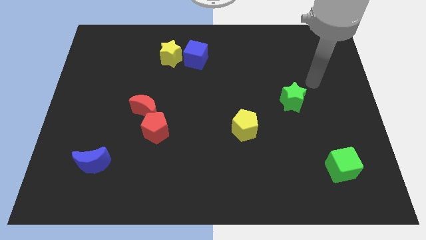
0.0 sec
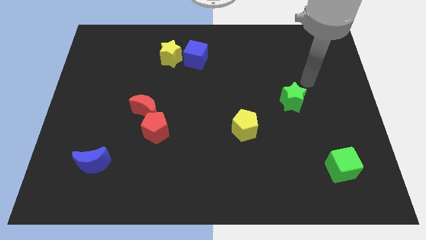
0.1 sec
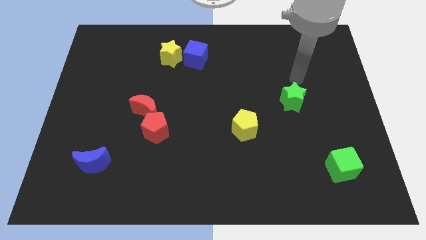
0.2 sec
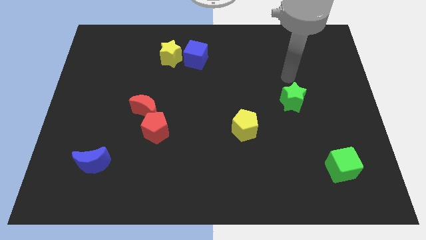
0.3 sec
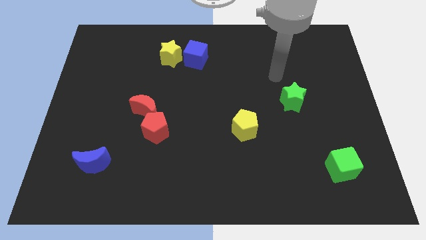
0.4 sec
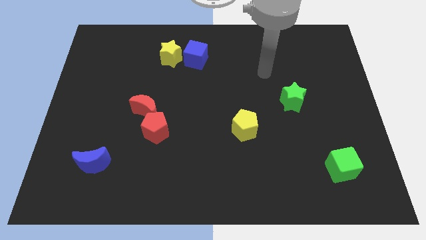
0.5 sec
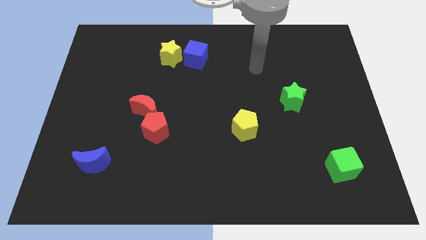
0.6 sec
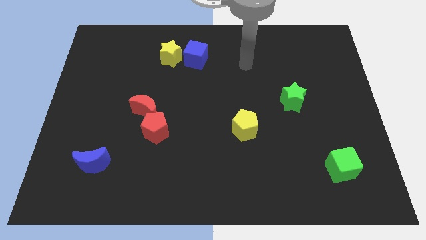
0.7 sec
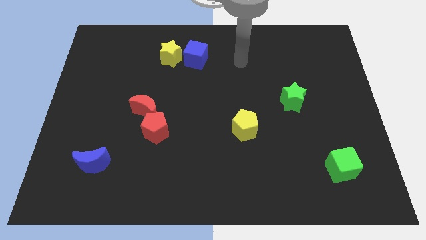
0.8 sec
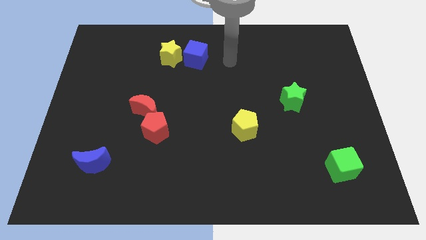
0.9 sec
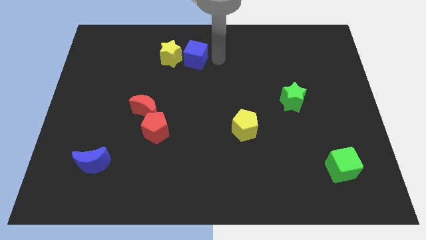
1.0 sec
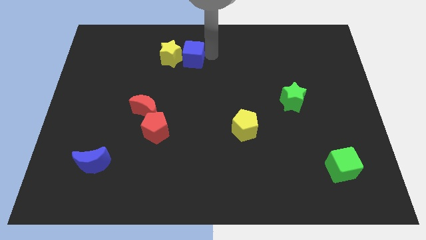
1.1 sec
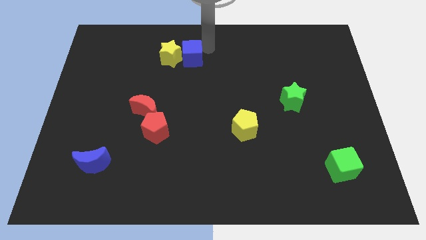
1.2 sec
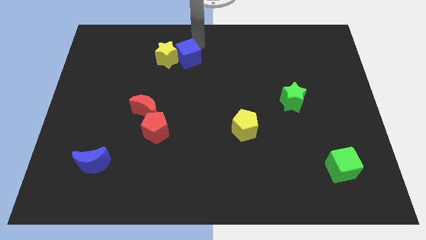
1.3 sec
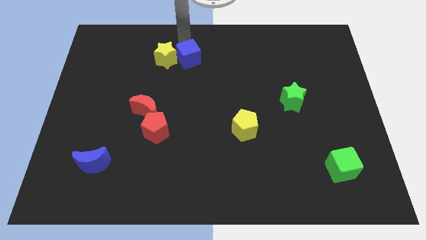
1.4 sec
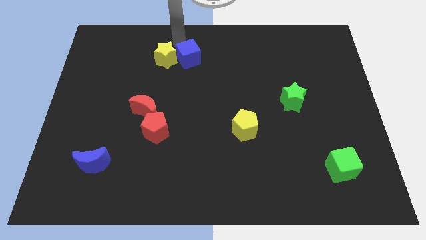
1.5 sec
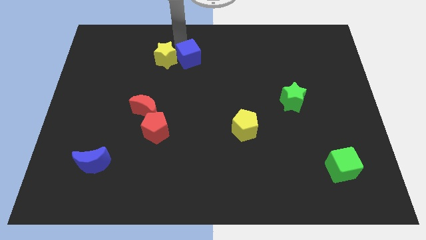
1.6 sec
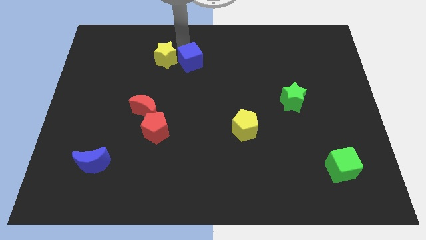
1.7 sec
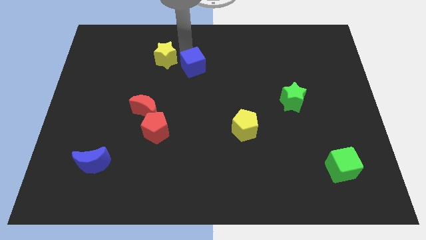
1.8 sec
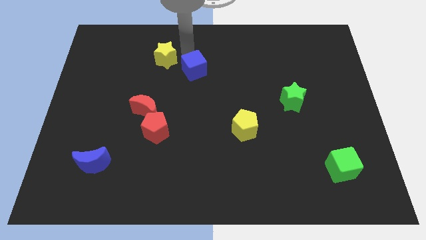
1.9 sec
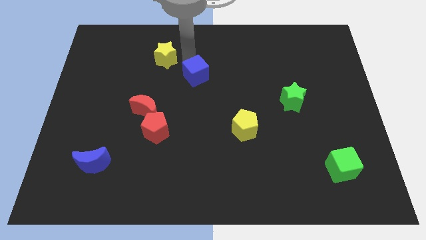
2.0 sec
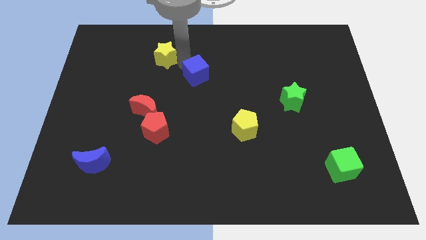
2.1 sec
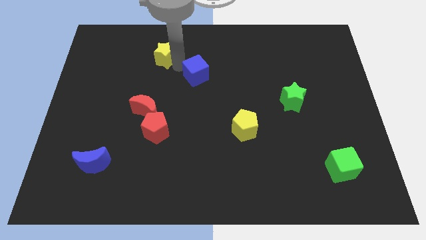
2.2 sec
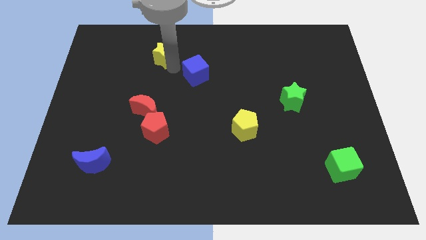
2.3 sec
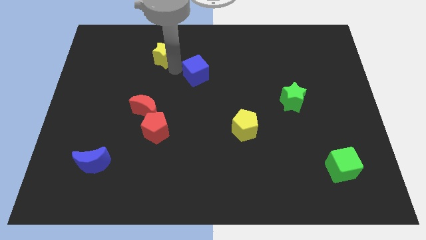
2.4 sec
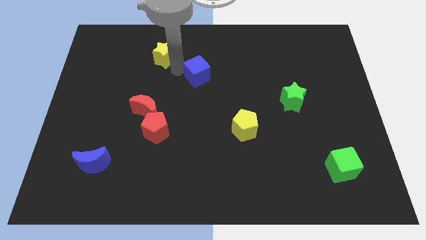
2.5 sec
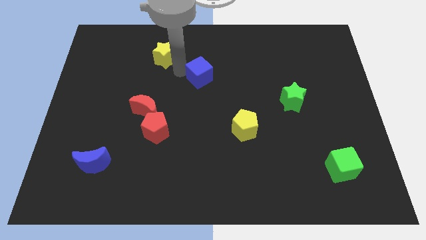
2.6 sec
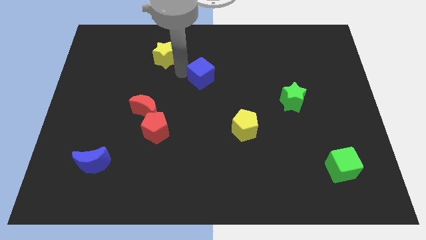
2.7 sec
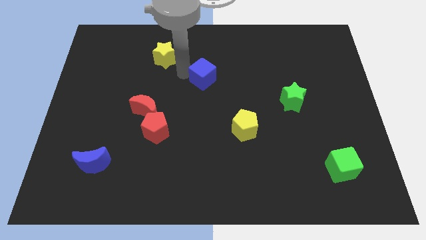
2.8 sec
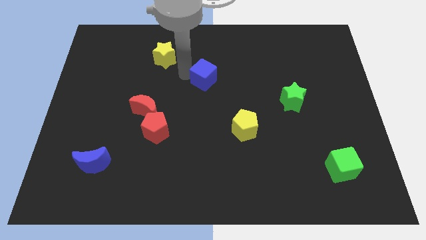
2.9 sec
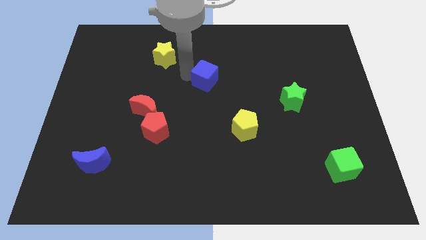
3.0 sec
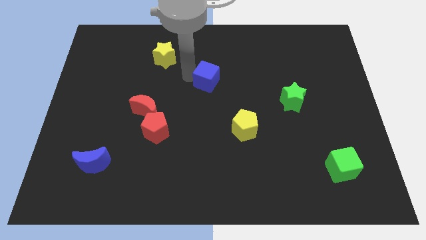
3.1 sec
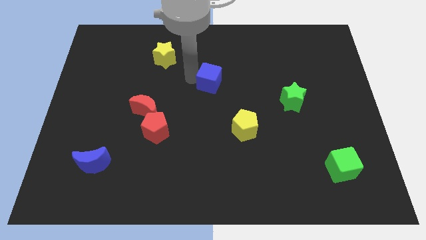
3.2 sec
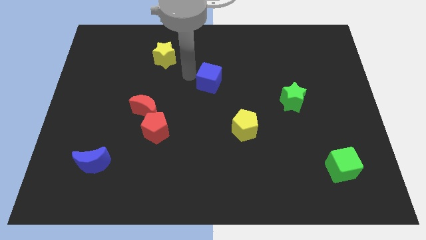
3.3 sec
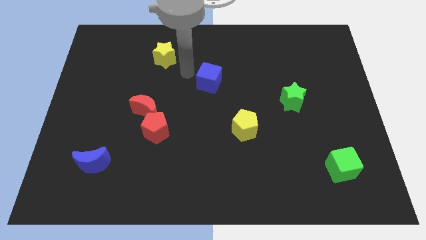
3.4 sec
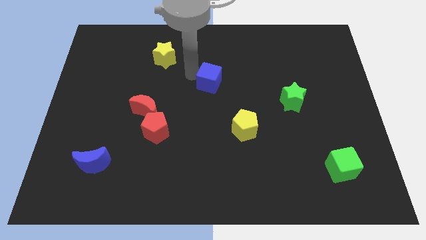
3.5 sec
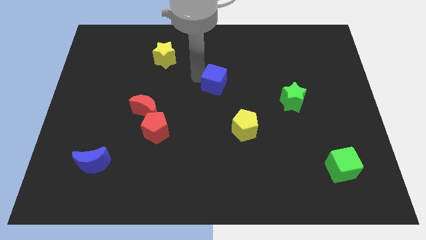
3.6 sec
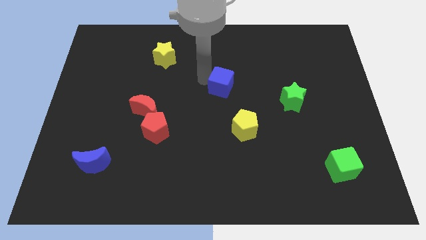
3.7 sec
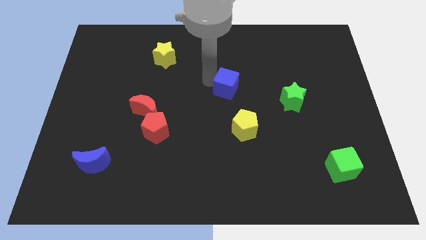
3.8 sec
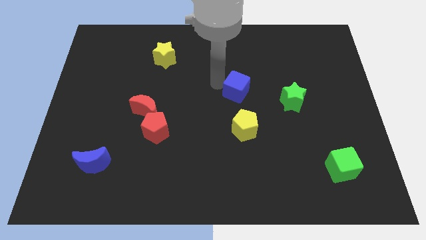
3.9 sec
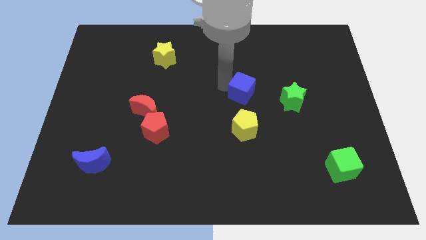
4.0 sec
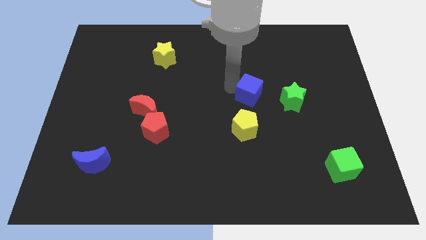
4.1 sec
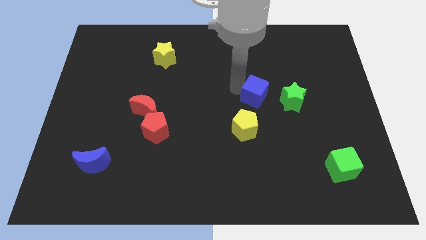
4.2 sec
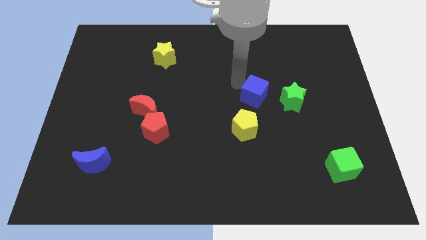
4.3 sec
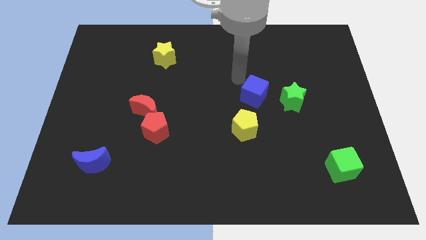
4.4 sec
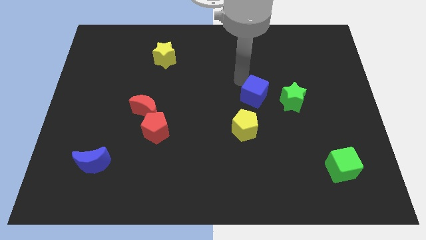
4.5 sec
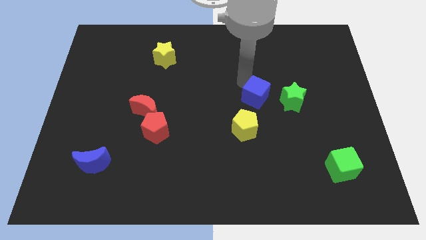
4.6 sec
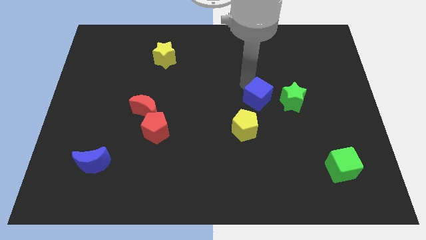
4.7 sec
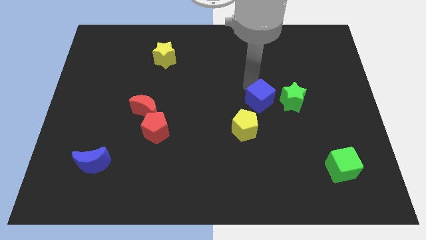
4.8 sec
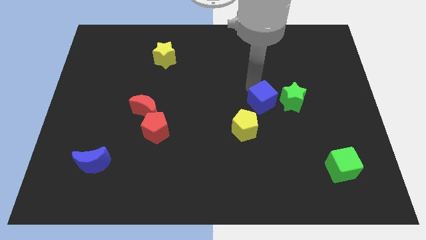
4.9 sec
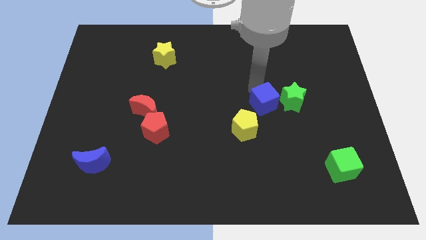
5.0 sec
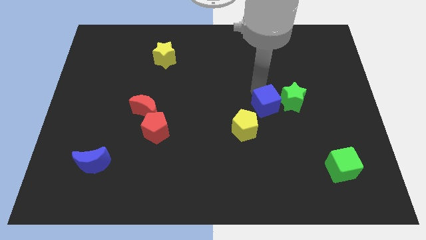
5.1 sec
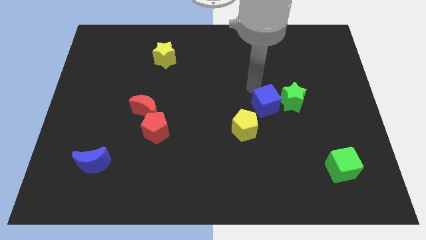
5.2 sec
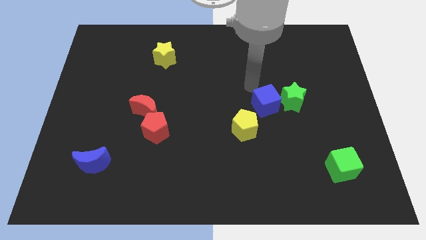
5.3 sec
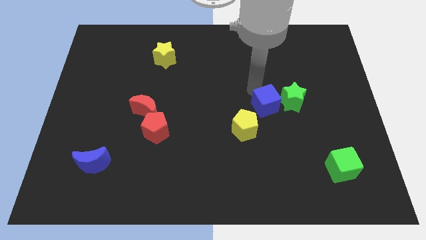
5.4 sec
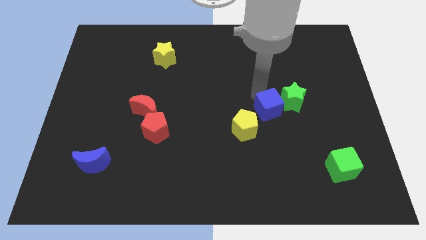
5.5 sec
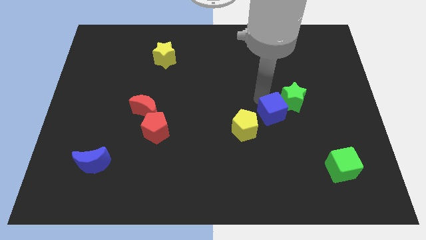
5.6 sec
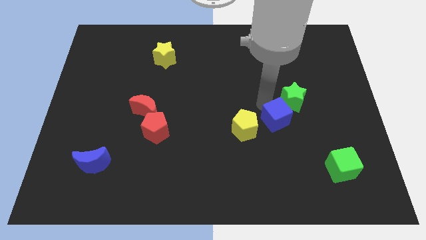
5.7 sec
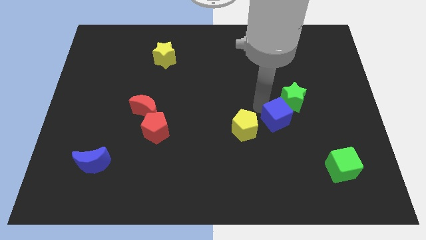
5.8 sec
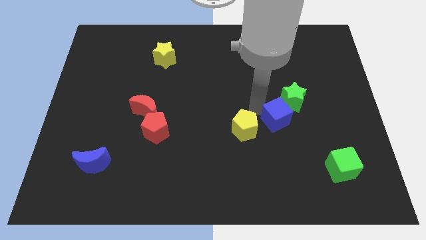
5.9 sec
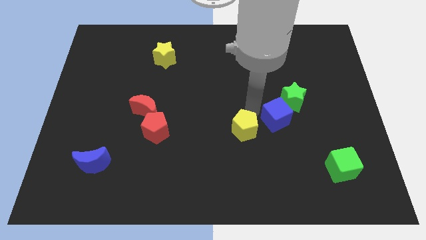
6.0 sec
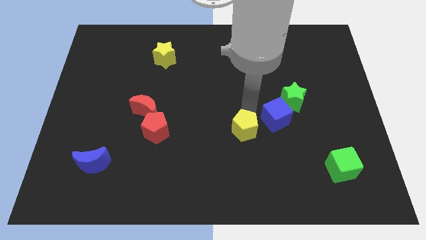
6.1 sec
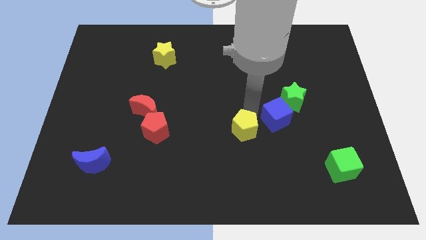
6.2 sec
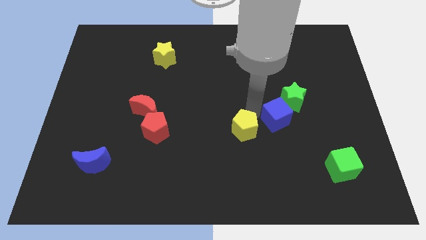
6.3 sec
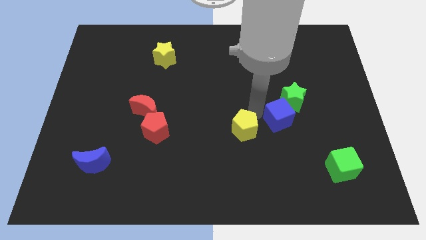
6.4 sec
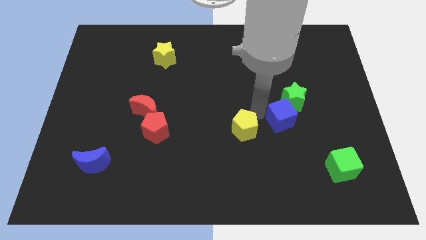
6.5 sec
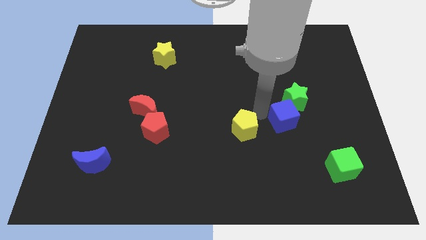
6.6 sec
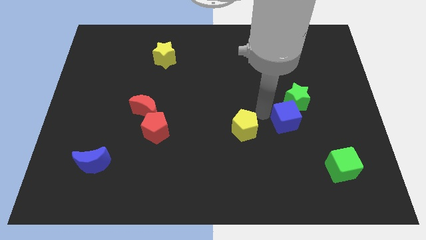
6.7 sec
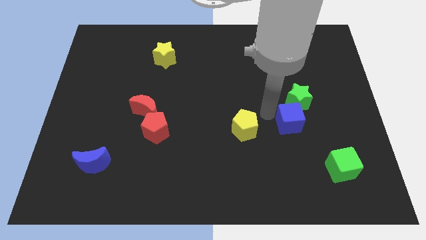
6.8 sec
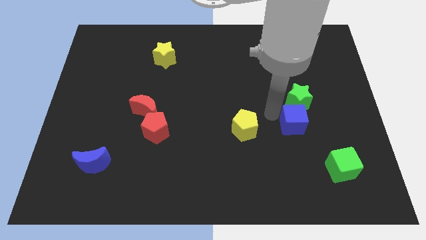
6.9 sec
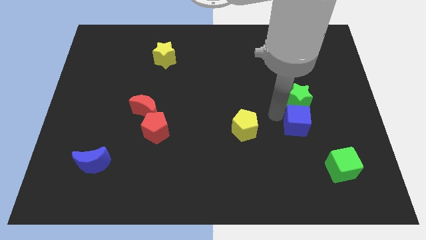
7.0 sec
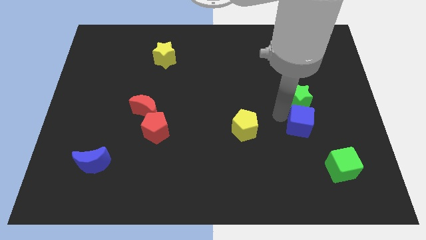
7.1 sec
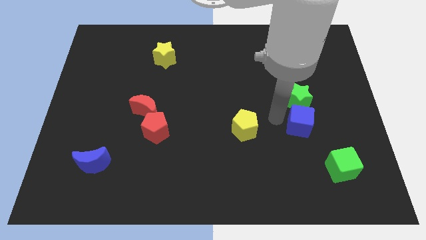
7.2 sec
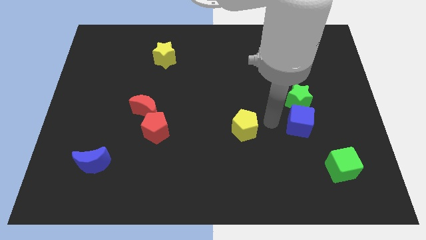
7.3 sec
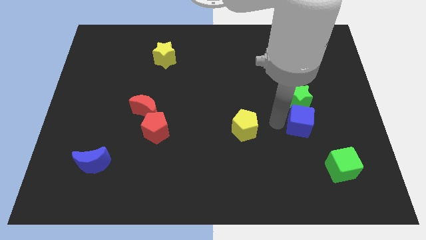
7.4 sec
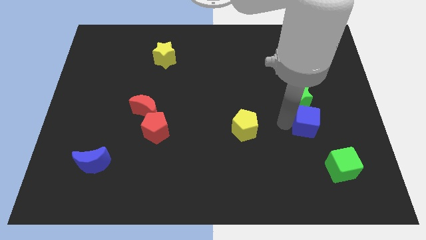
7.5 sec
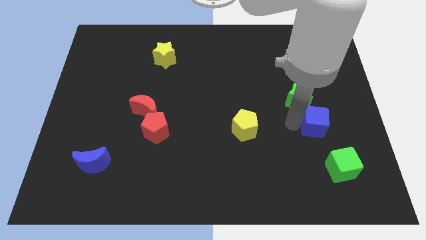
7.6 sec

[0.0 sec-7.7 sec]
move the blue cube to the top side of the green cube
